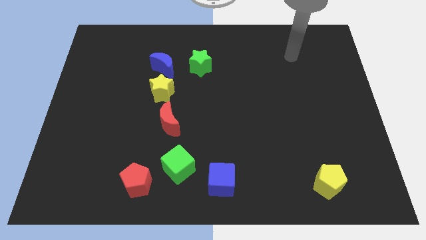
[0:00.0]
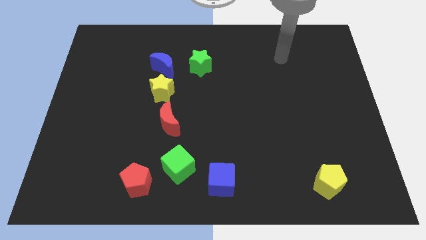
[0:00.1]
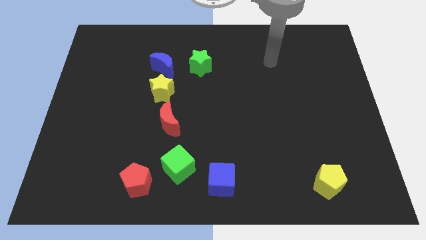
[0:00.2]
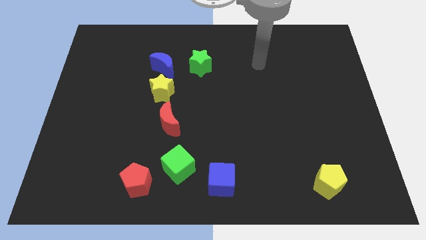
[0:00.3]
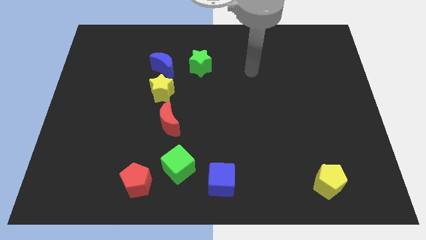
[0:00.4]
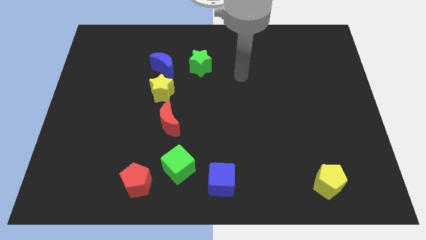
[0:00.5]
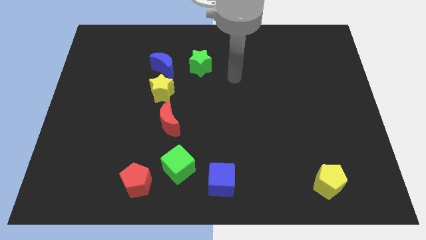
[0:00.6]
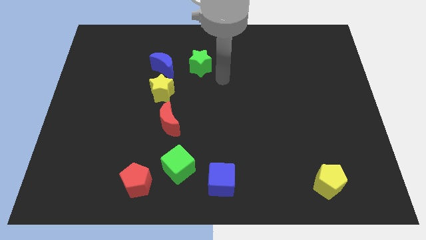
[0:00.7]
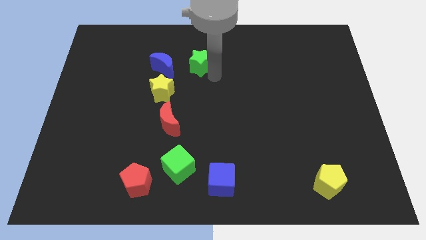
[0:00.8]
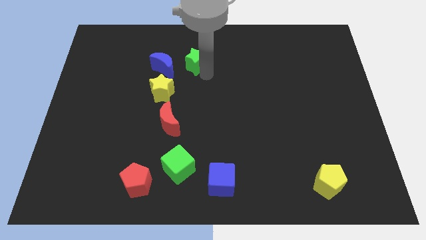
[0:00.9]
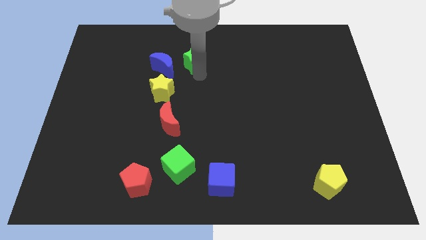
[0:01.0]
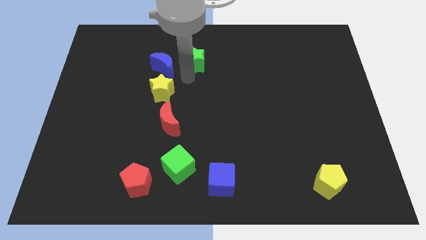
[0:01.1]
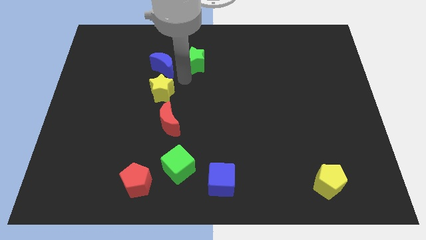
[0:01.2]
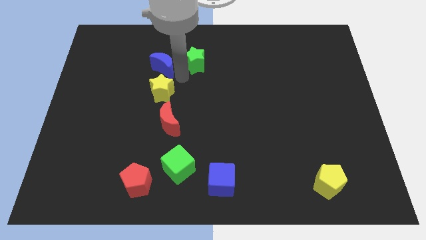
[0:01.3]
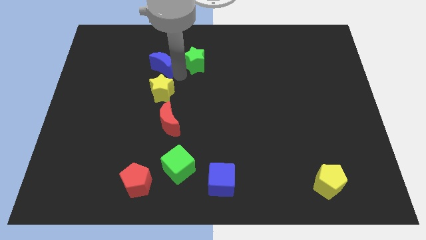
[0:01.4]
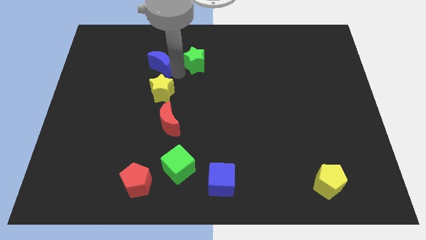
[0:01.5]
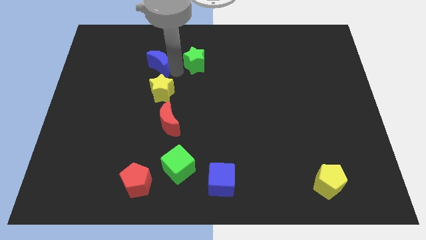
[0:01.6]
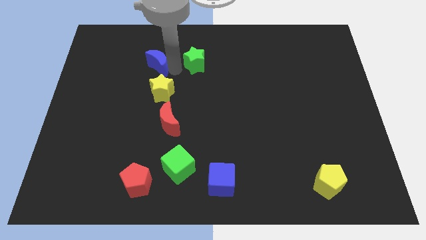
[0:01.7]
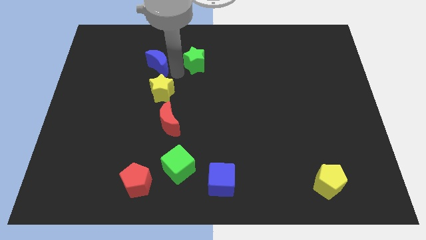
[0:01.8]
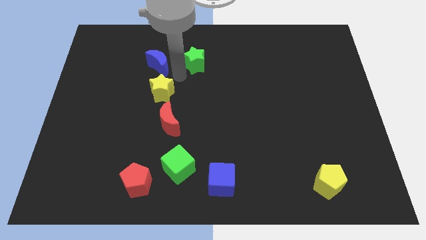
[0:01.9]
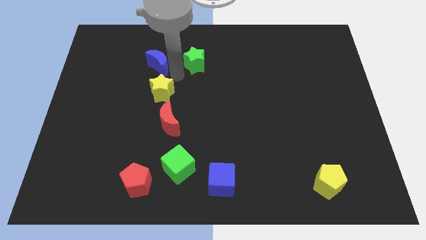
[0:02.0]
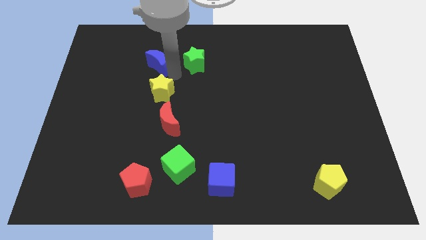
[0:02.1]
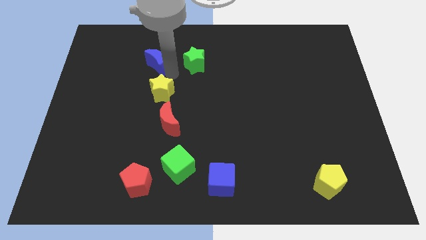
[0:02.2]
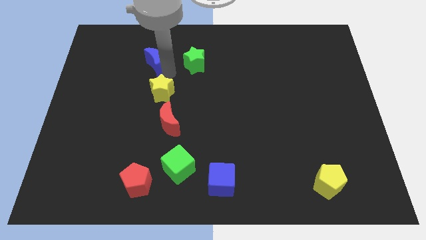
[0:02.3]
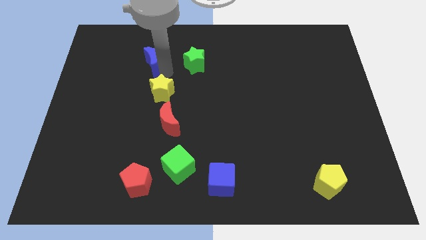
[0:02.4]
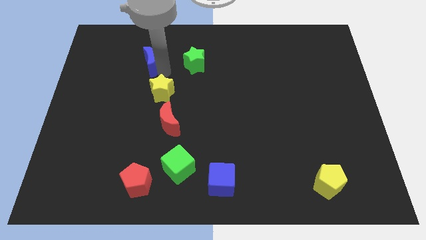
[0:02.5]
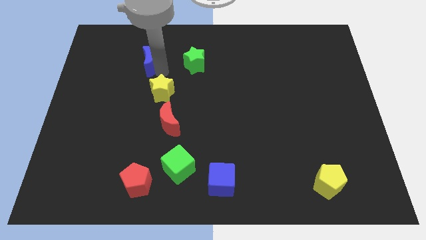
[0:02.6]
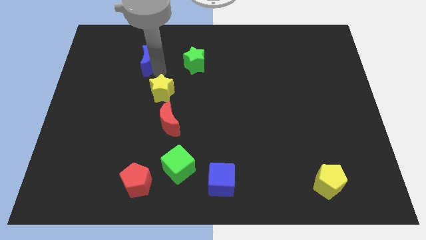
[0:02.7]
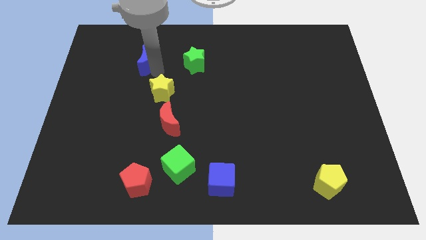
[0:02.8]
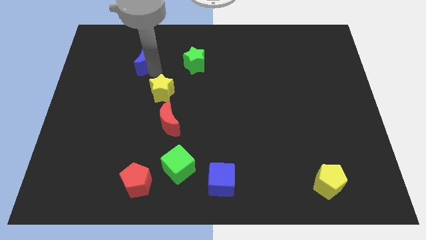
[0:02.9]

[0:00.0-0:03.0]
pull the blue moon apart from the yellow star and green star

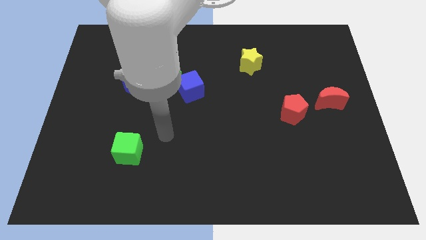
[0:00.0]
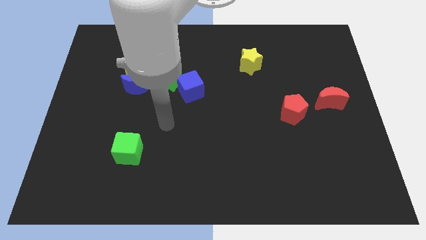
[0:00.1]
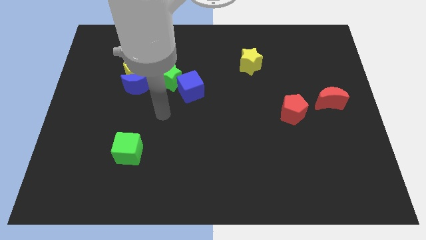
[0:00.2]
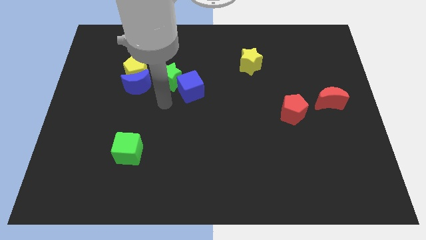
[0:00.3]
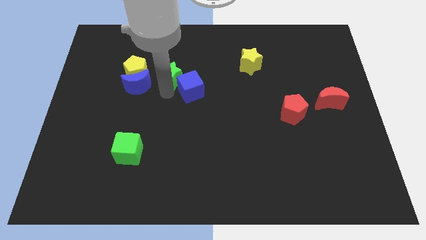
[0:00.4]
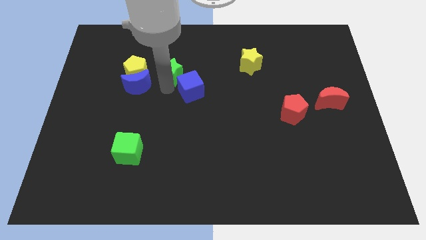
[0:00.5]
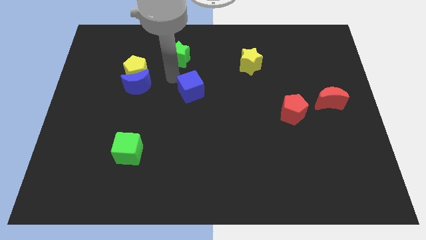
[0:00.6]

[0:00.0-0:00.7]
separate the blue cube from the green star

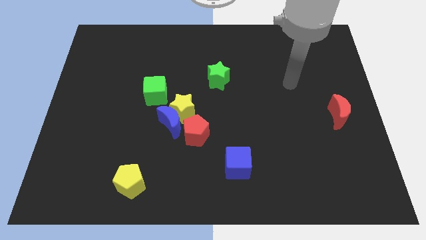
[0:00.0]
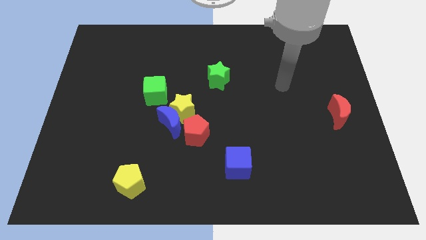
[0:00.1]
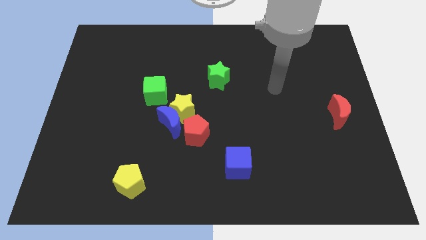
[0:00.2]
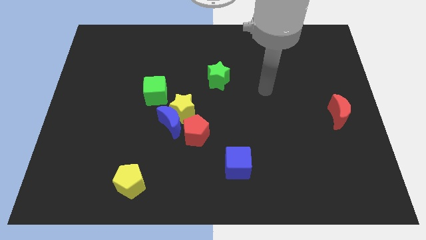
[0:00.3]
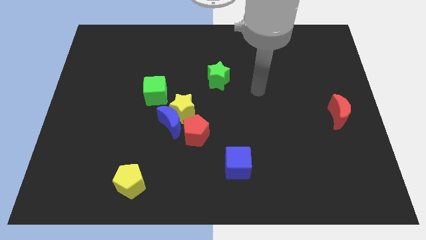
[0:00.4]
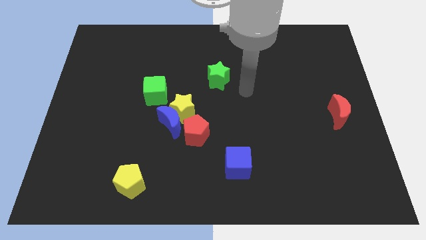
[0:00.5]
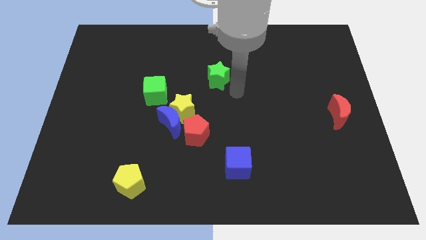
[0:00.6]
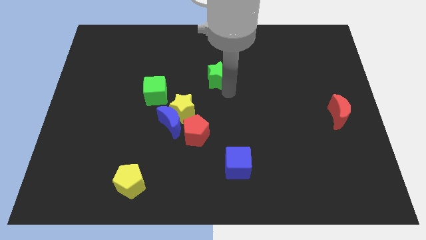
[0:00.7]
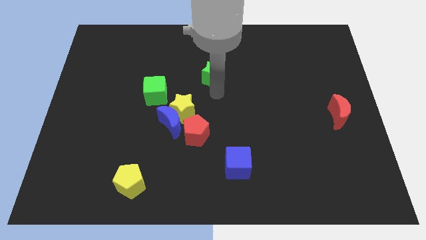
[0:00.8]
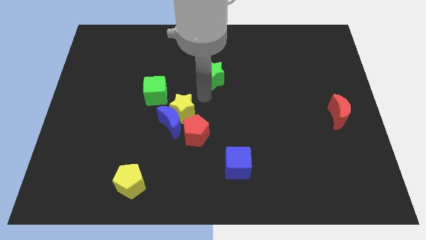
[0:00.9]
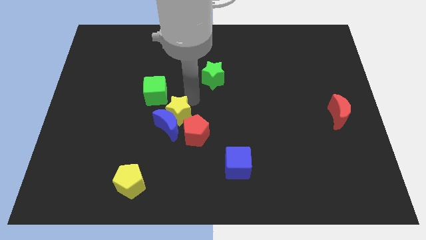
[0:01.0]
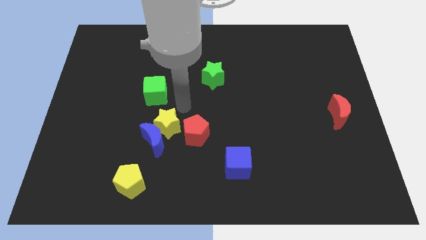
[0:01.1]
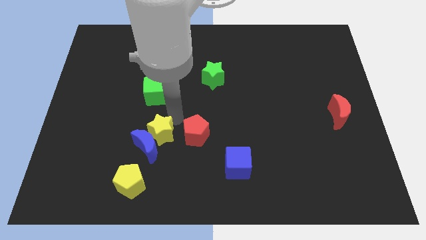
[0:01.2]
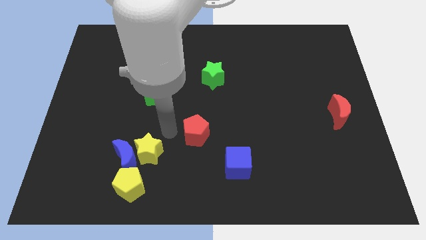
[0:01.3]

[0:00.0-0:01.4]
pull the red pentagon apart from the blue moon and yellow star

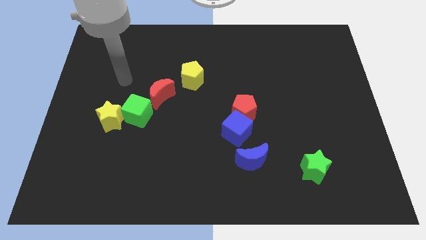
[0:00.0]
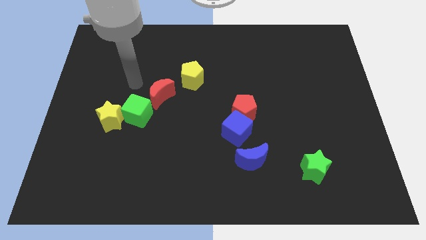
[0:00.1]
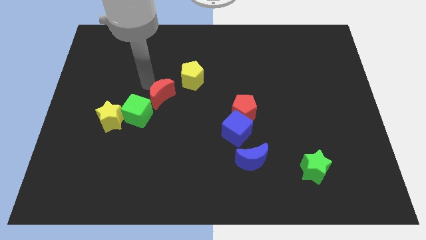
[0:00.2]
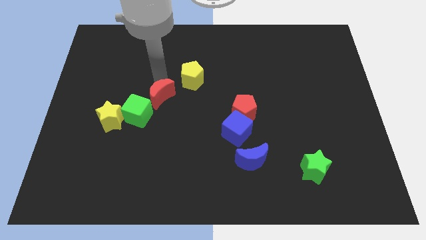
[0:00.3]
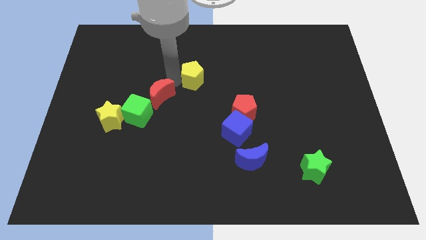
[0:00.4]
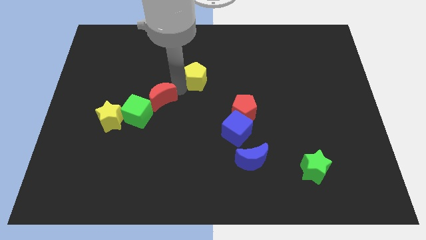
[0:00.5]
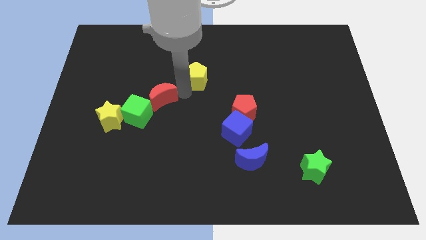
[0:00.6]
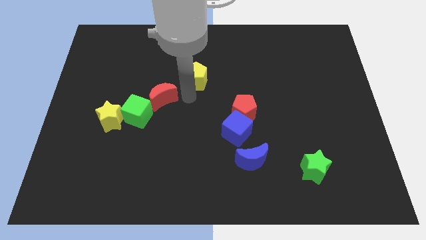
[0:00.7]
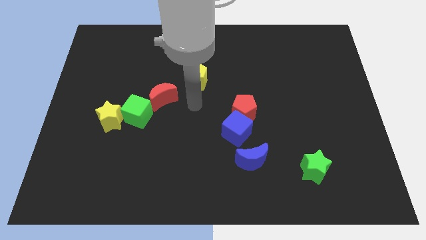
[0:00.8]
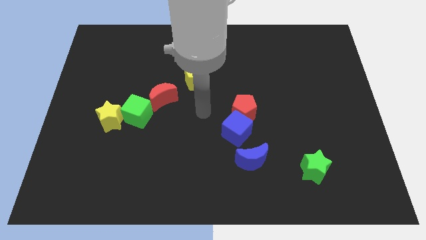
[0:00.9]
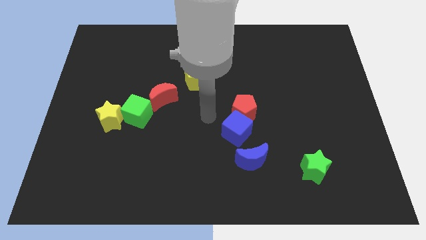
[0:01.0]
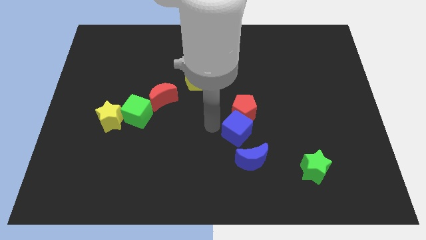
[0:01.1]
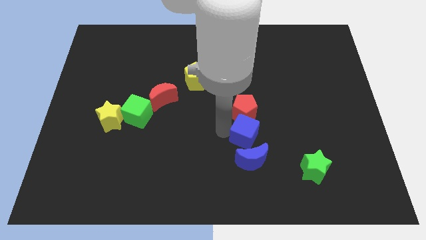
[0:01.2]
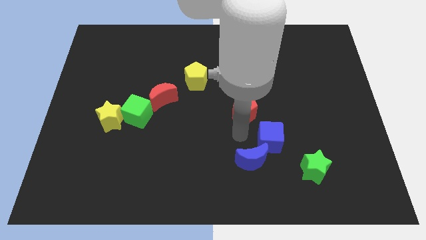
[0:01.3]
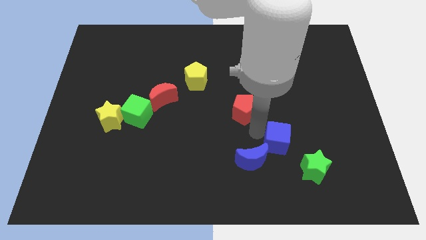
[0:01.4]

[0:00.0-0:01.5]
pull the red pentagon apart from the blue cube

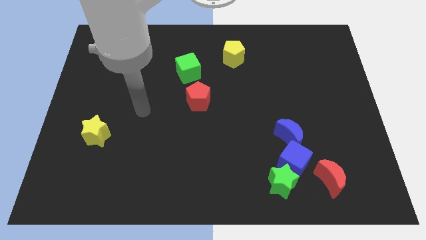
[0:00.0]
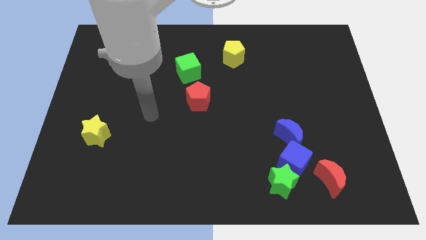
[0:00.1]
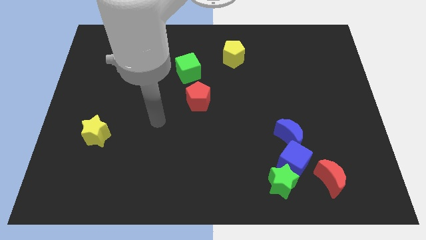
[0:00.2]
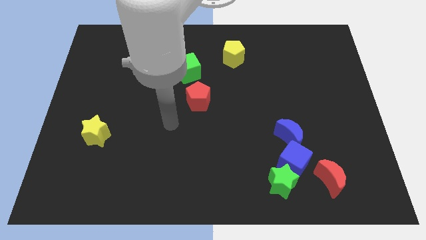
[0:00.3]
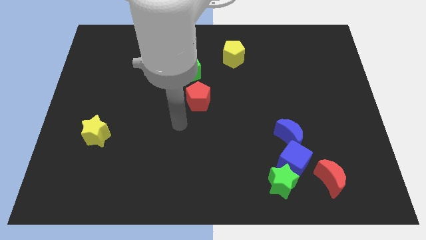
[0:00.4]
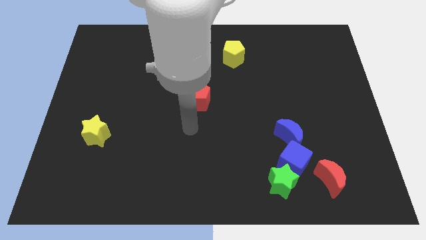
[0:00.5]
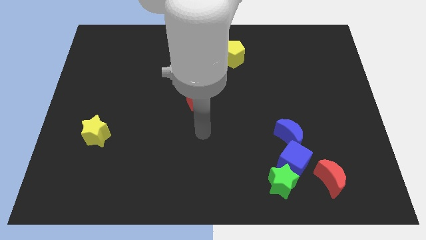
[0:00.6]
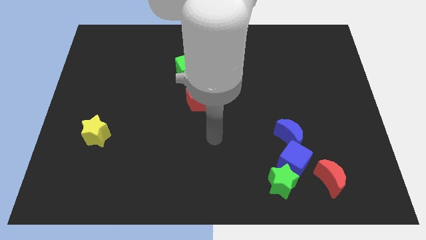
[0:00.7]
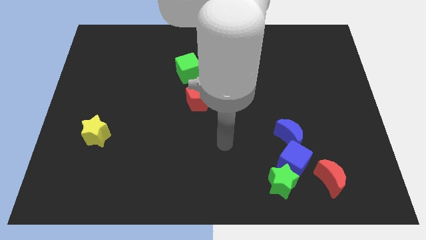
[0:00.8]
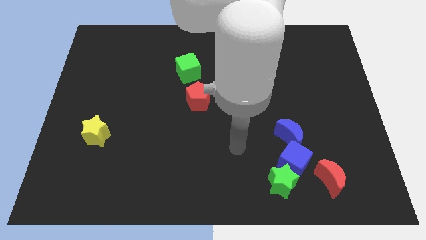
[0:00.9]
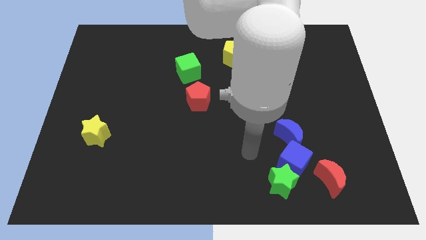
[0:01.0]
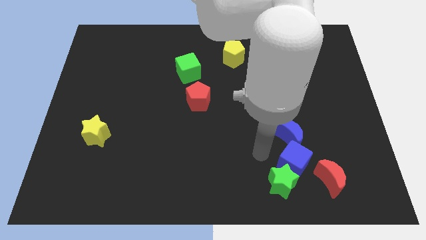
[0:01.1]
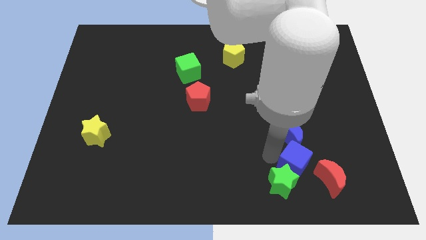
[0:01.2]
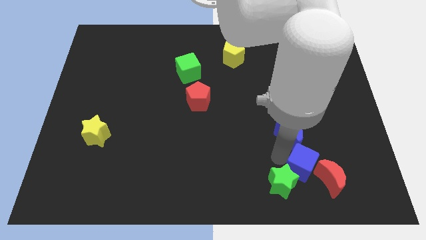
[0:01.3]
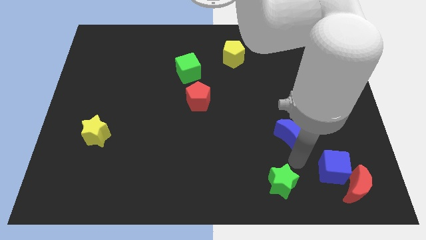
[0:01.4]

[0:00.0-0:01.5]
move the blue moon away from the blue cube

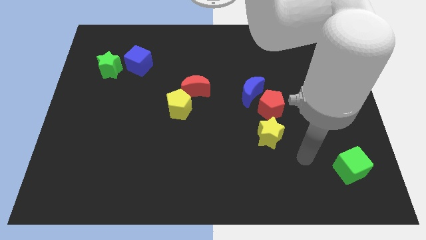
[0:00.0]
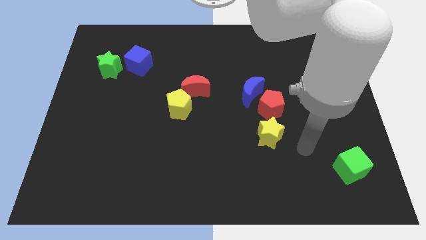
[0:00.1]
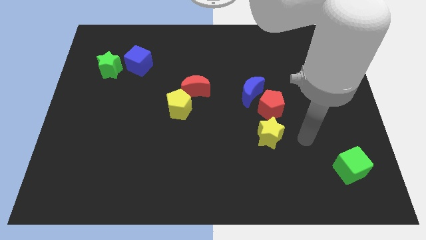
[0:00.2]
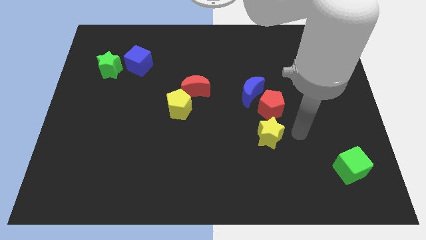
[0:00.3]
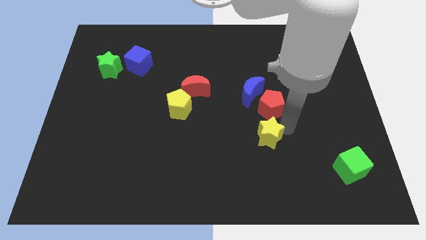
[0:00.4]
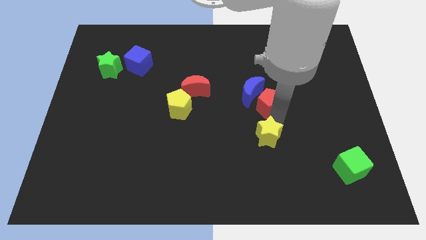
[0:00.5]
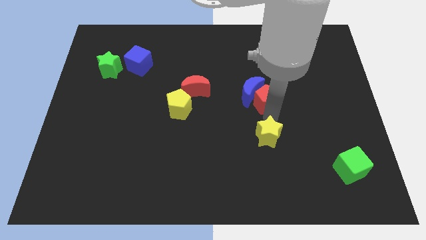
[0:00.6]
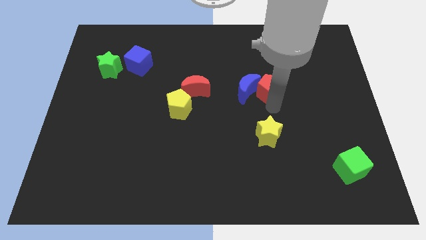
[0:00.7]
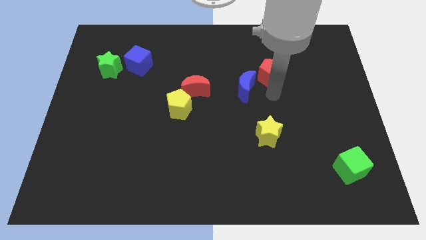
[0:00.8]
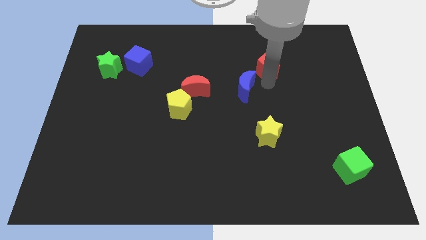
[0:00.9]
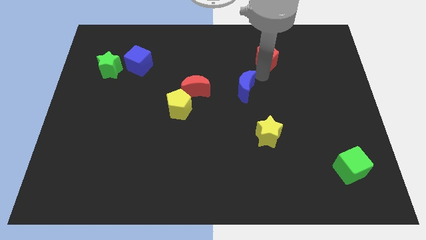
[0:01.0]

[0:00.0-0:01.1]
move the blue moon away from the red pentagon
